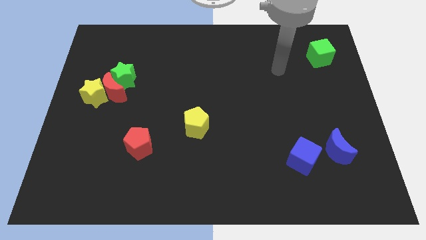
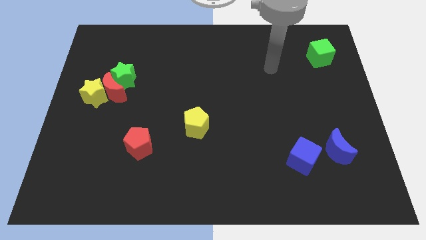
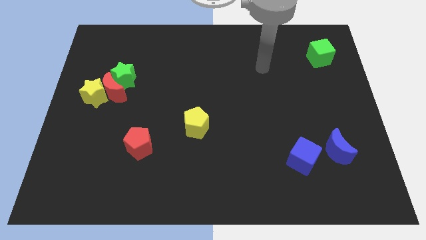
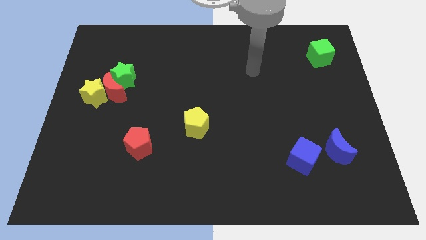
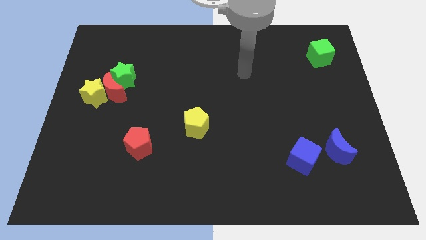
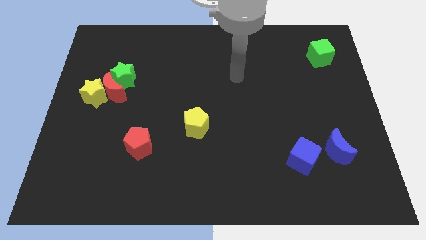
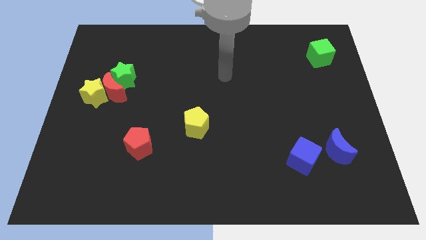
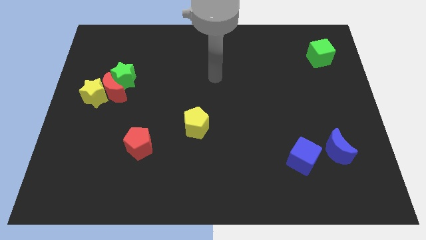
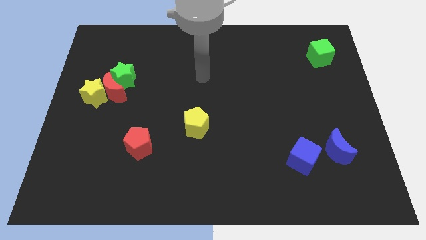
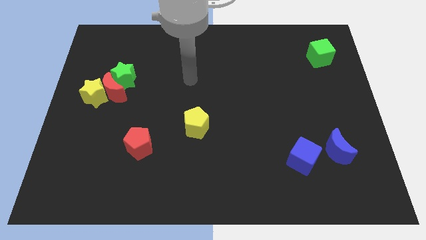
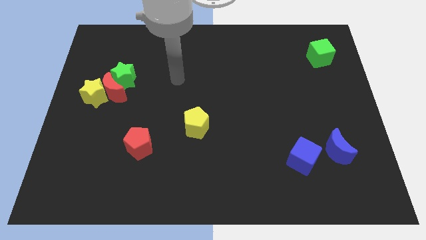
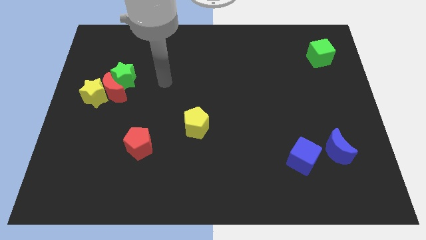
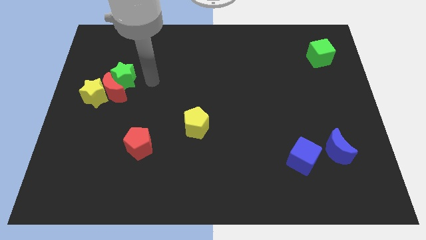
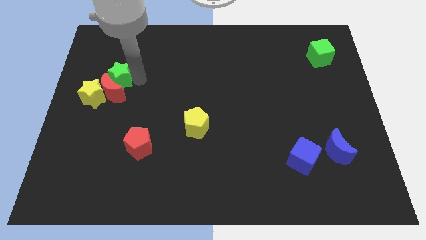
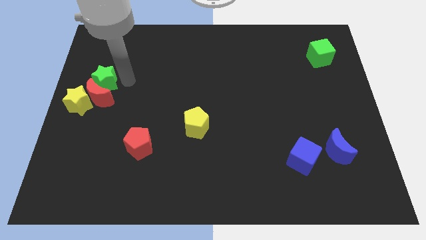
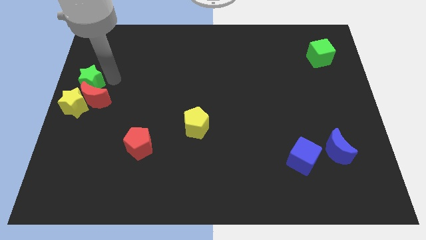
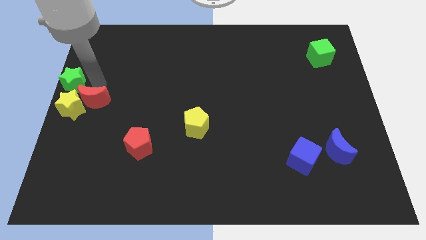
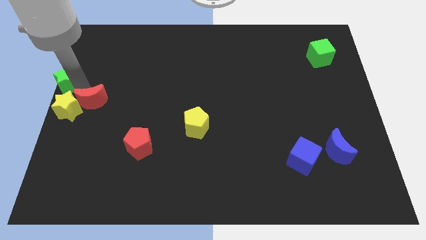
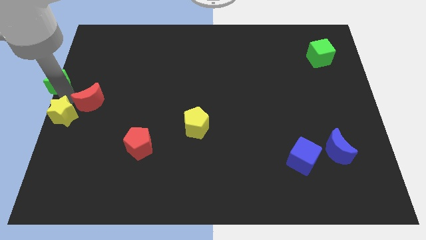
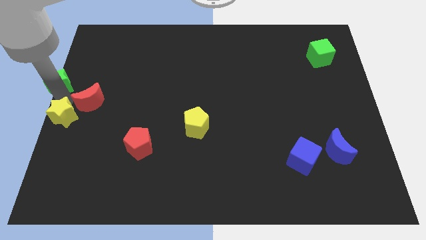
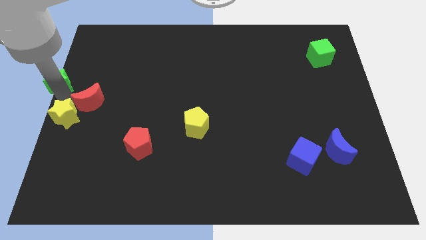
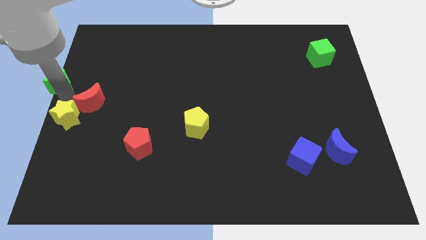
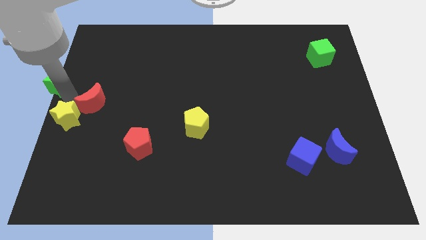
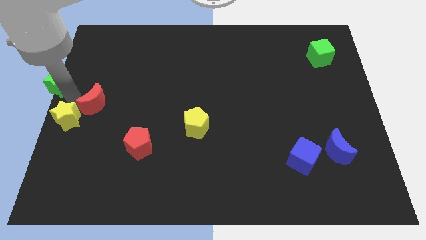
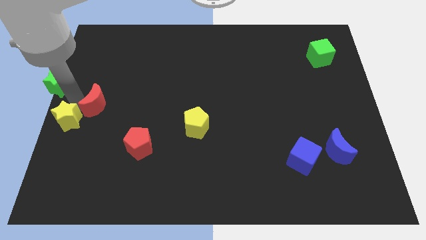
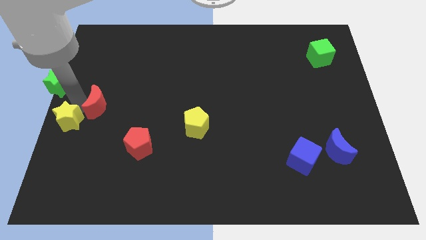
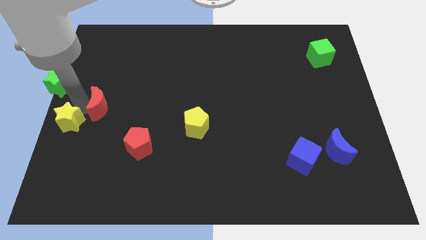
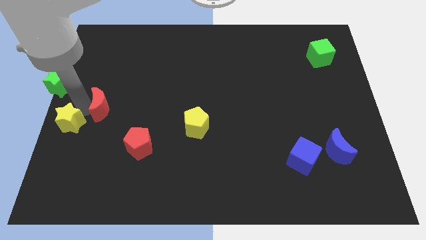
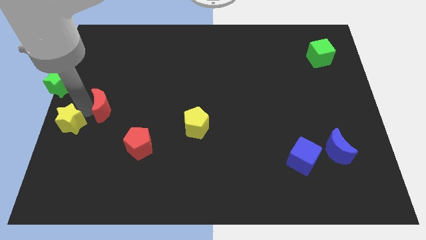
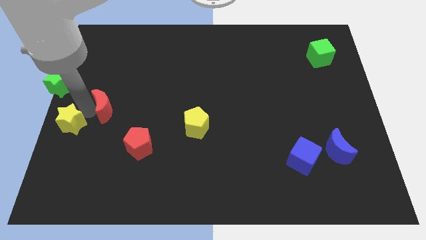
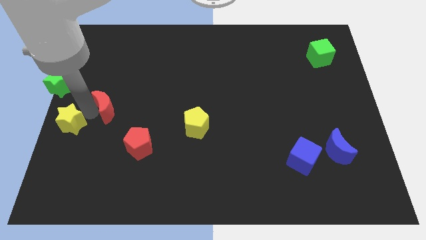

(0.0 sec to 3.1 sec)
pull the red moon apart from the yellow star and green star

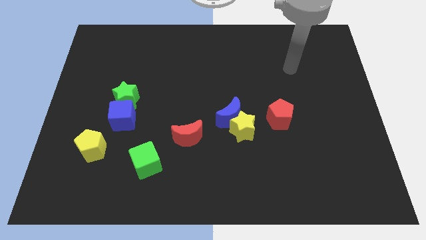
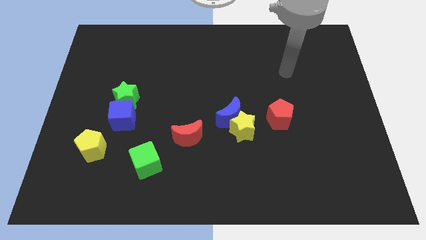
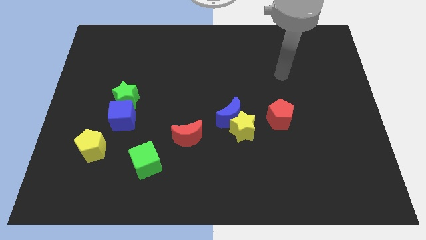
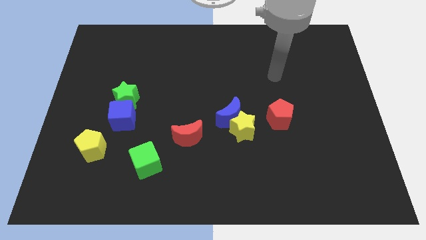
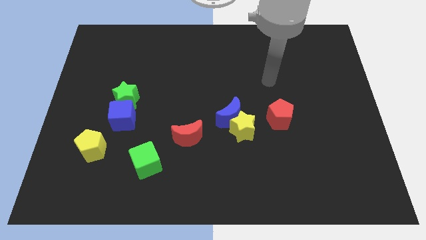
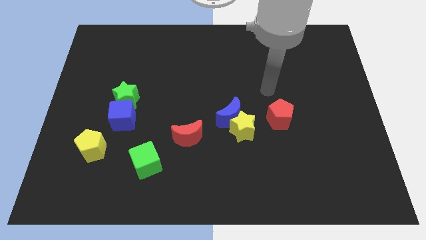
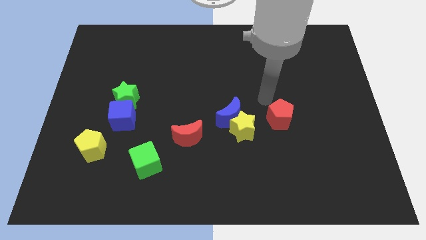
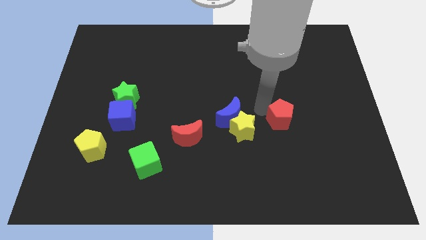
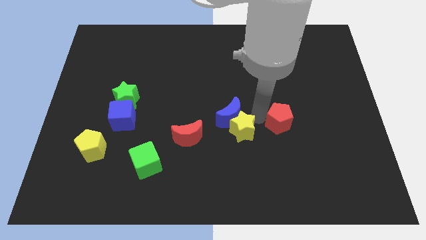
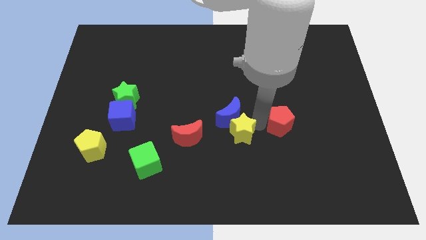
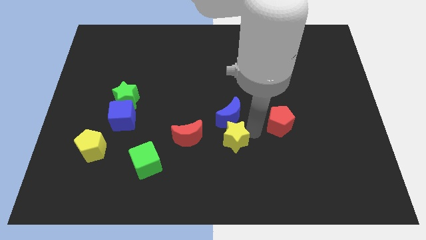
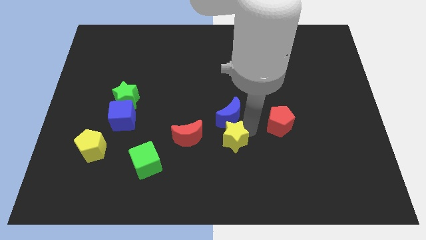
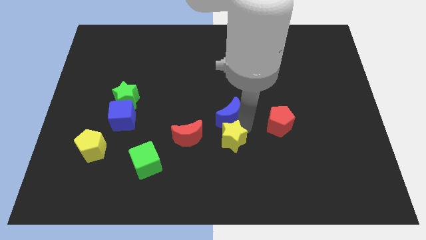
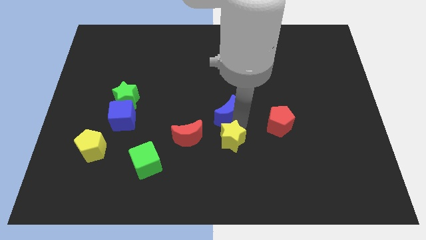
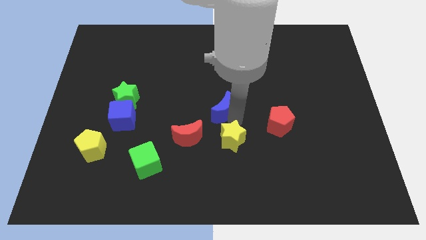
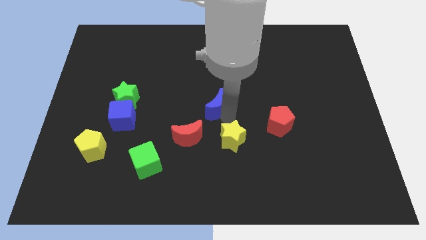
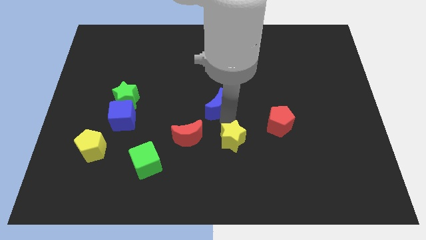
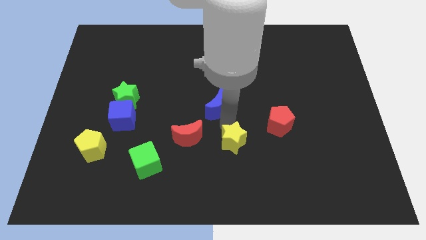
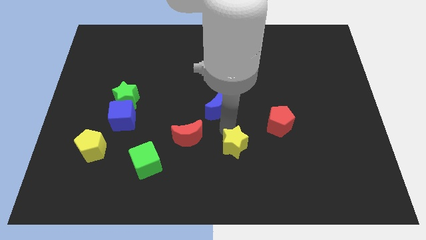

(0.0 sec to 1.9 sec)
pull the blue moon apart from the yellow star

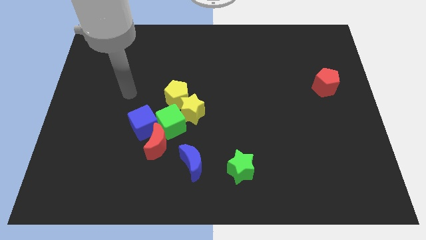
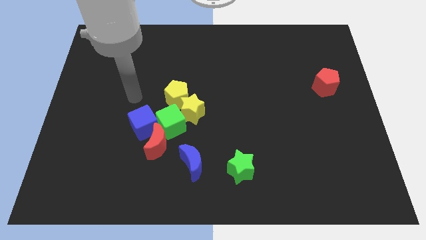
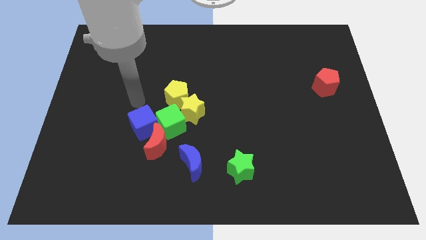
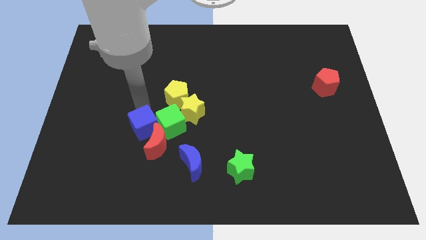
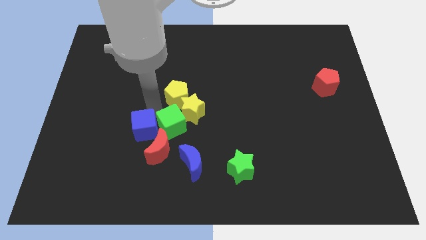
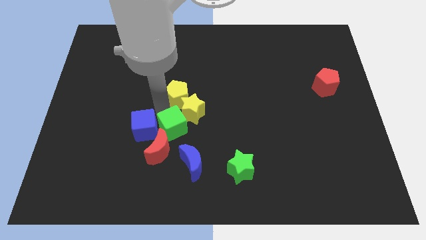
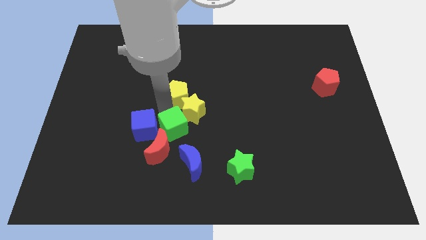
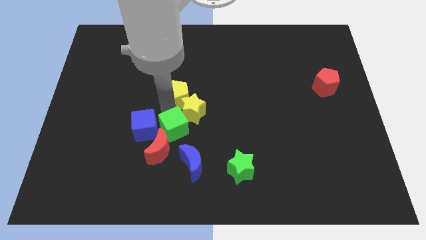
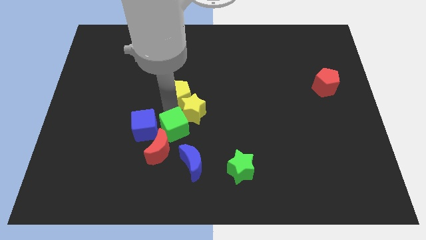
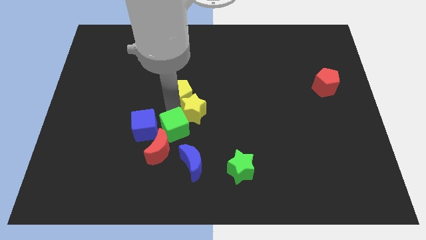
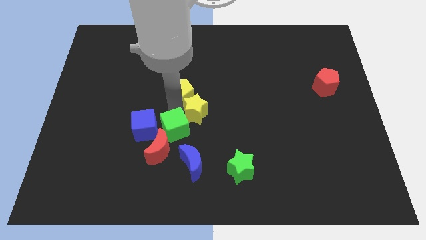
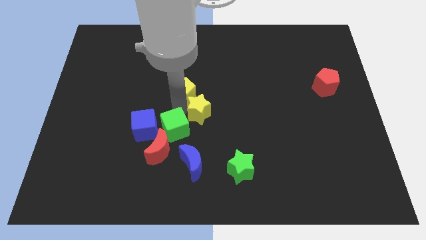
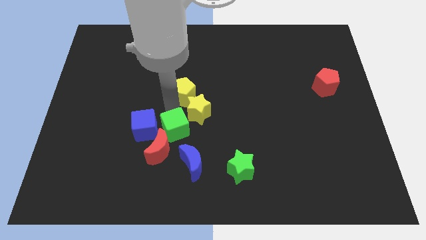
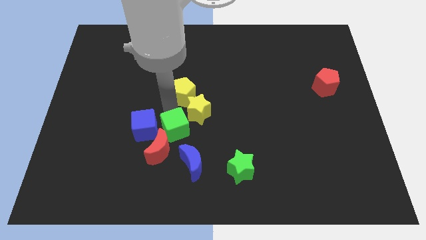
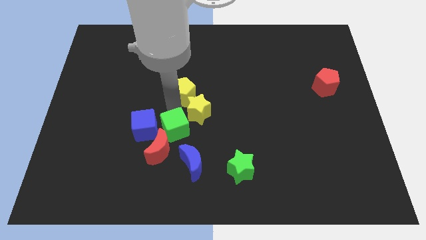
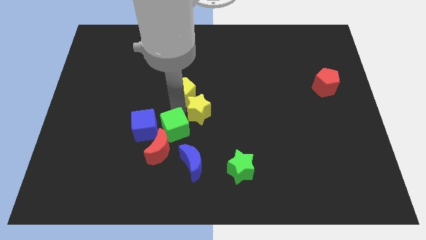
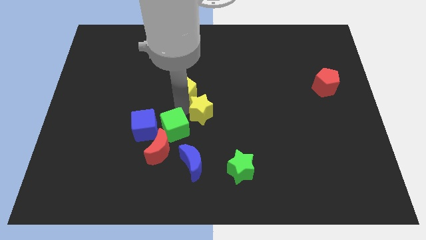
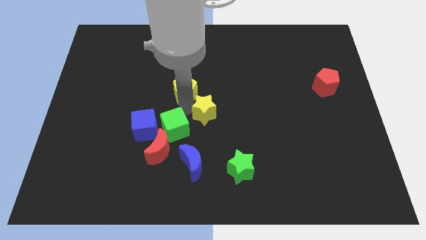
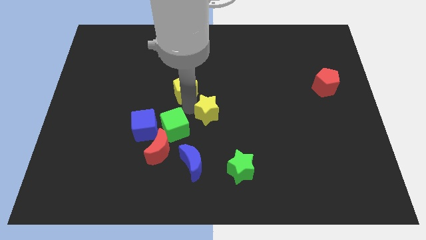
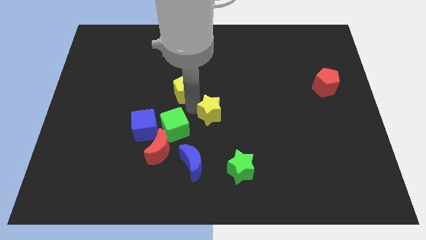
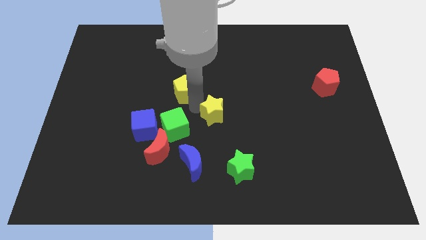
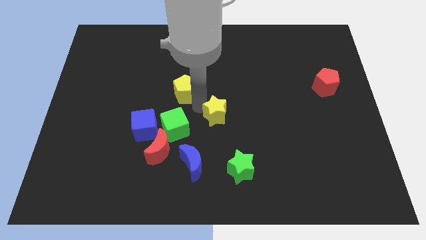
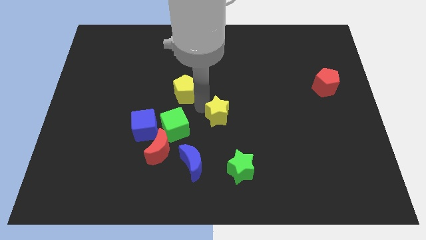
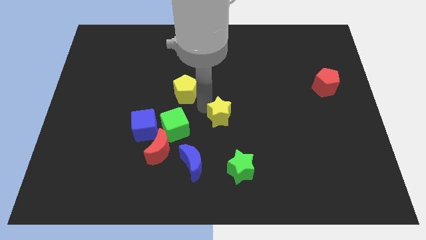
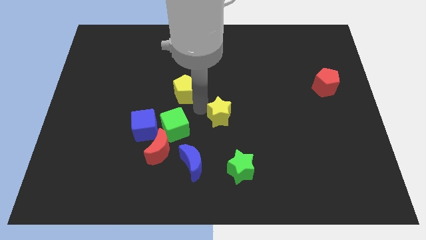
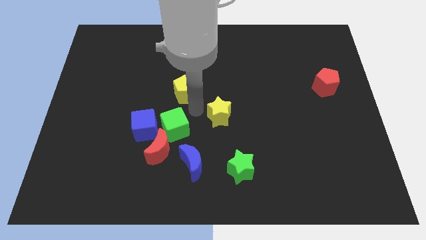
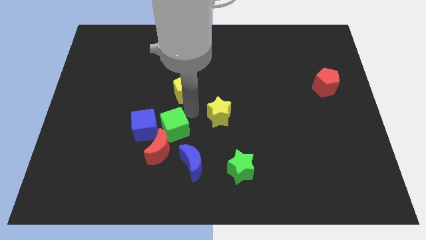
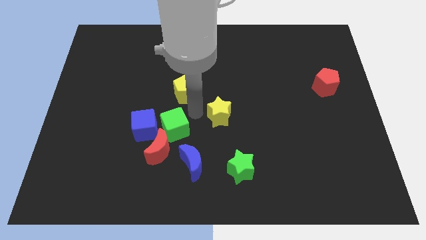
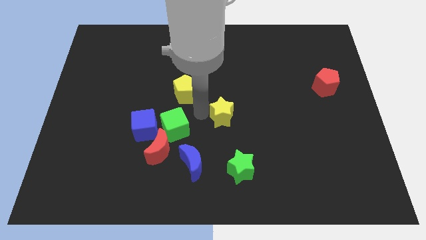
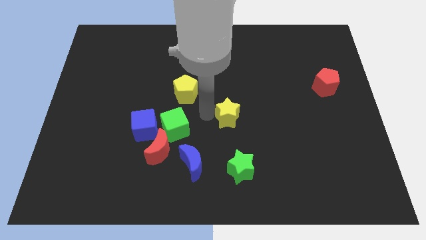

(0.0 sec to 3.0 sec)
move the yellow star away from the yellow pentagon and green cube

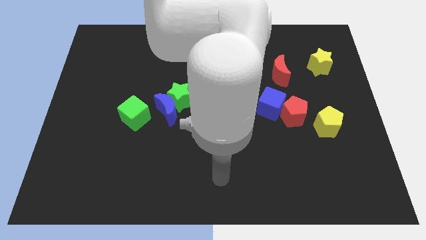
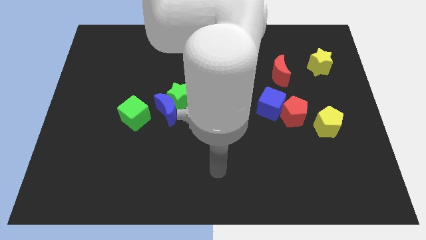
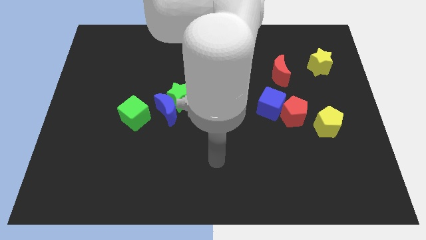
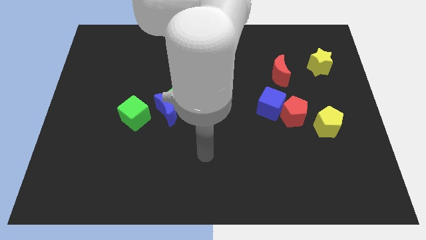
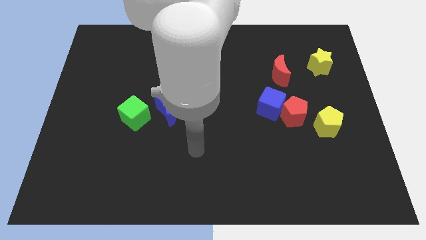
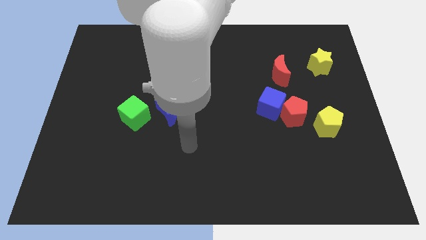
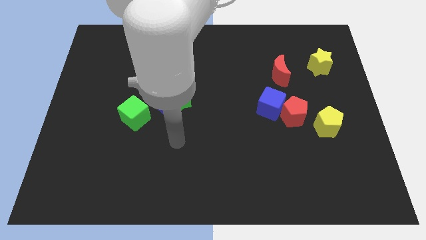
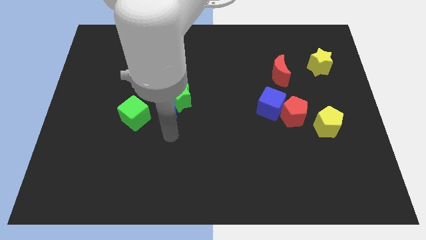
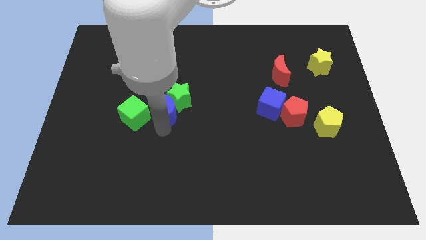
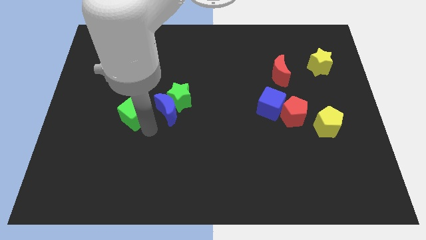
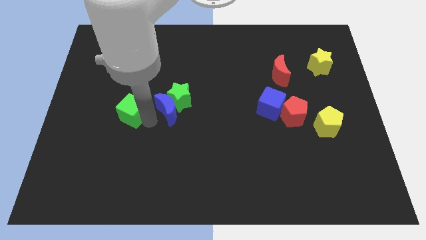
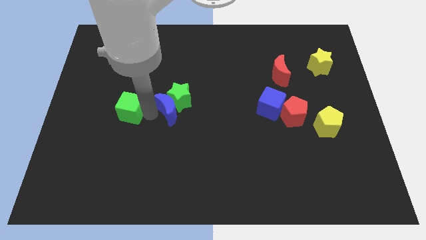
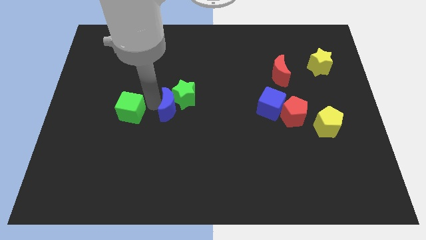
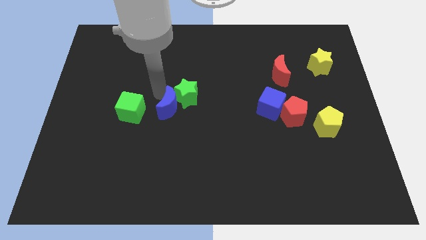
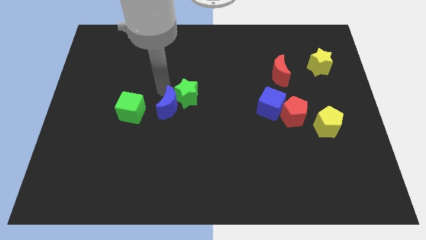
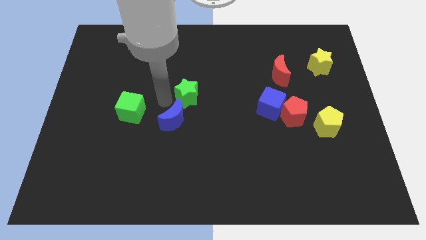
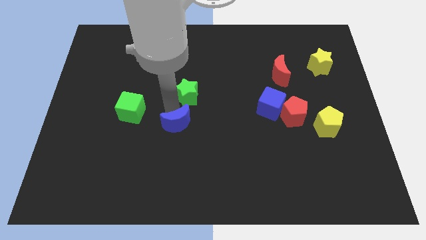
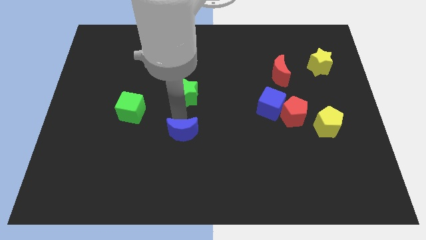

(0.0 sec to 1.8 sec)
move the green star away from the blue moon
